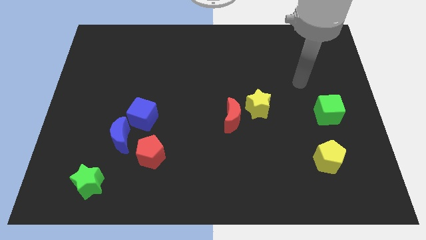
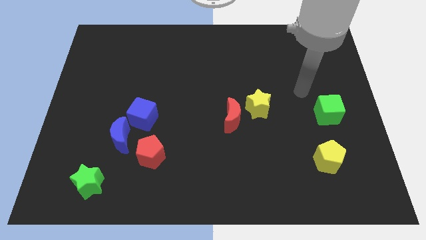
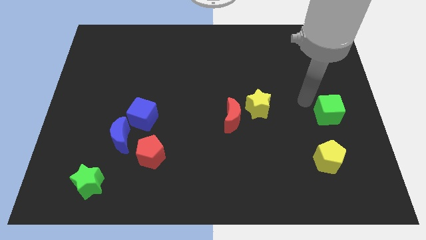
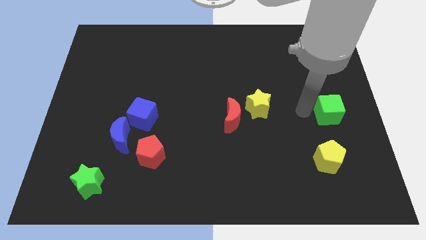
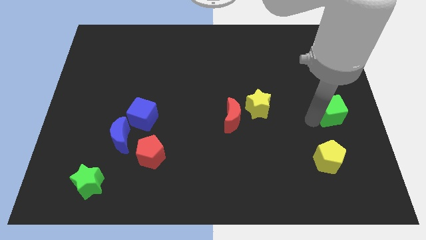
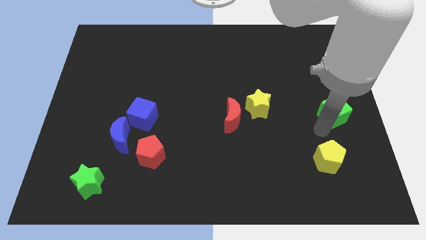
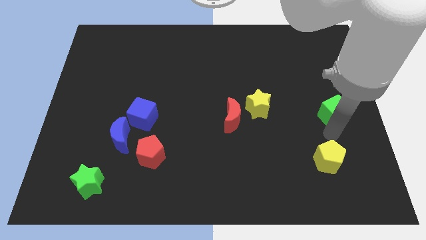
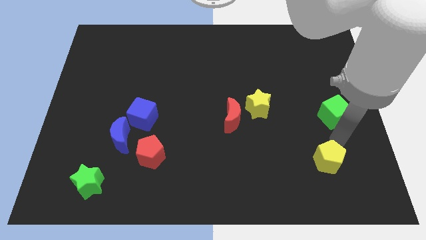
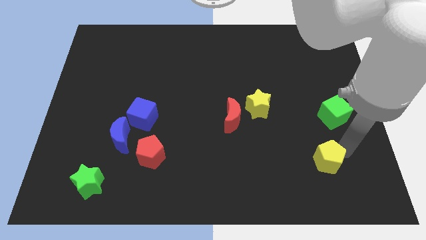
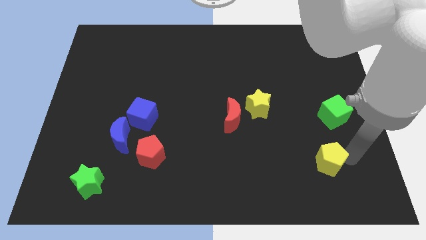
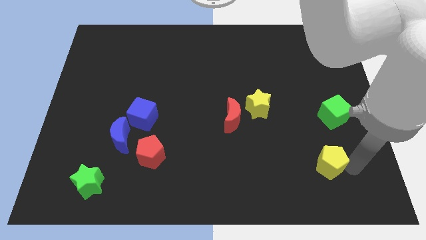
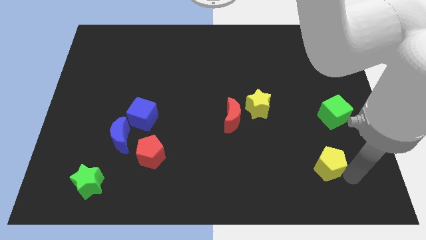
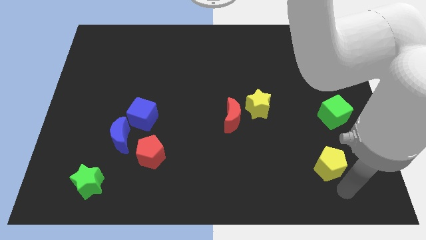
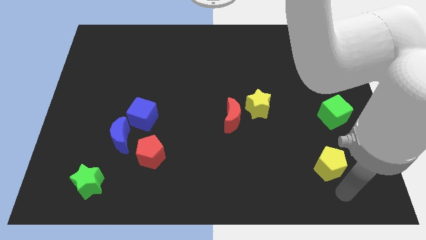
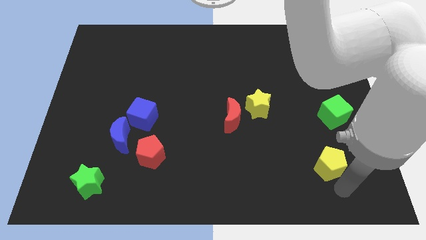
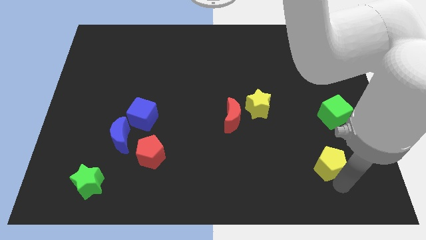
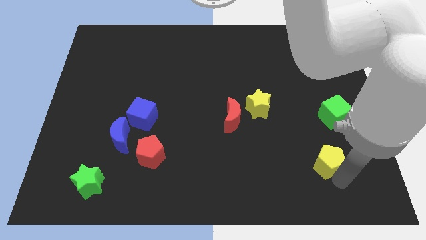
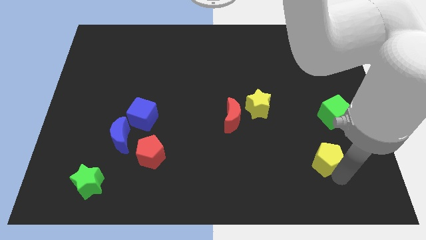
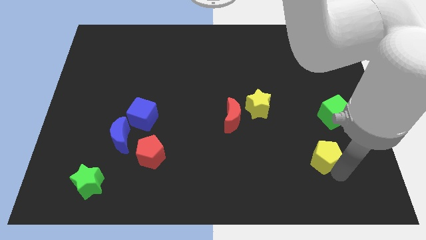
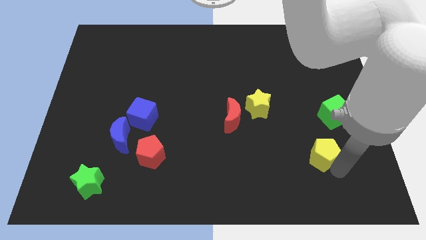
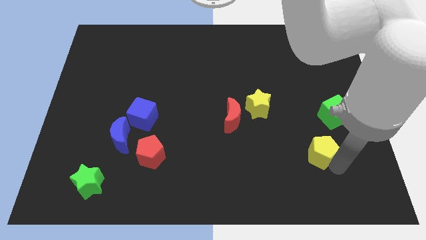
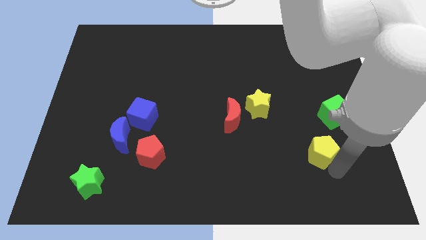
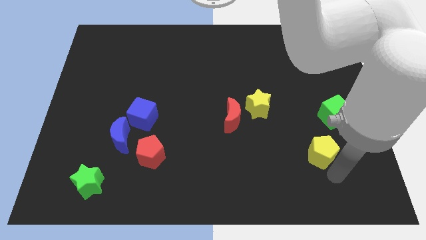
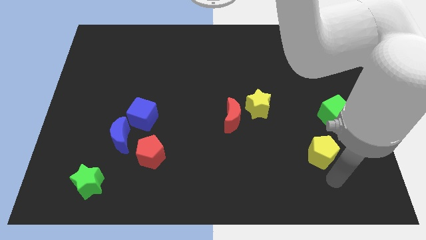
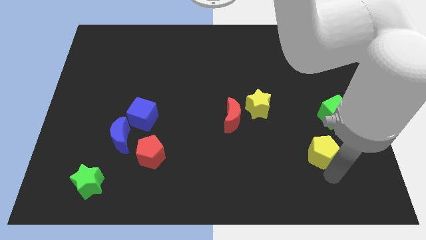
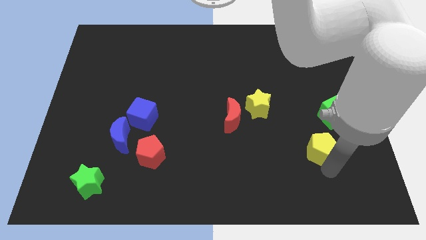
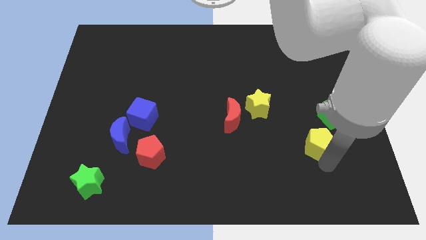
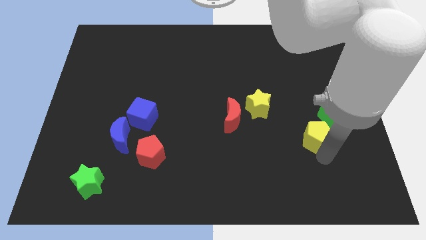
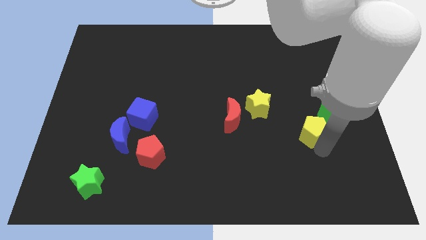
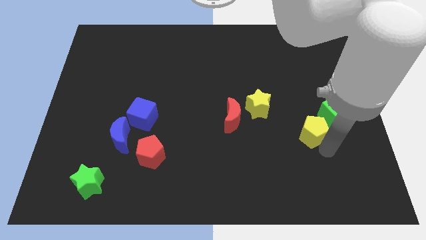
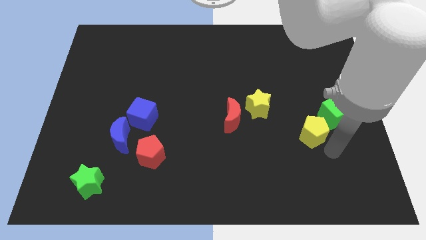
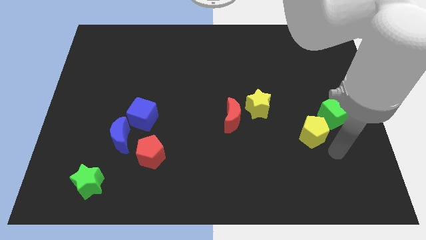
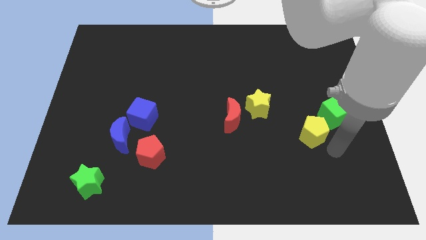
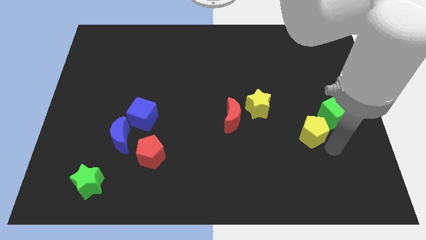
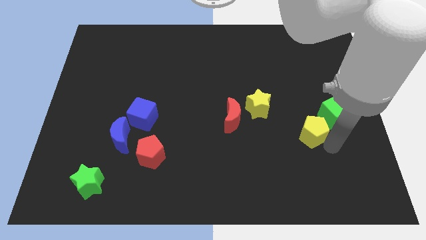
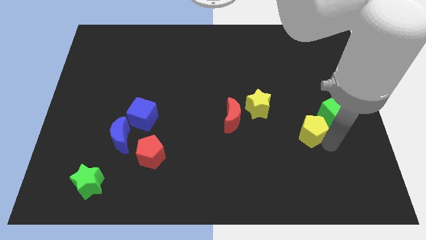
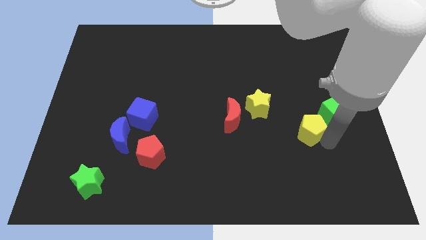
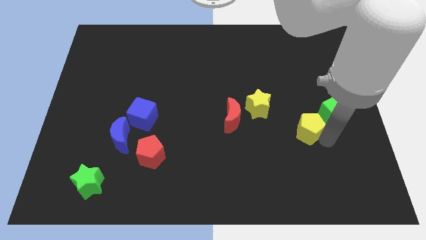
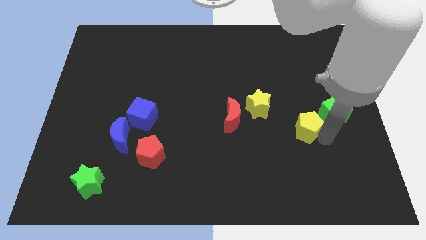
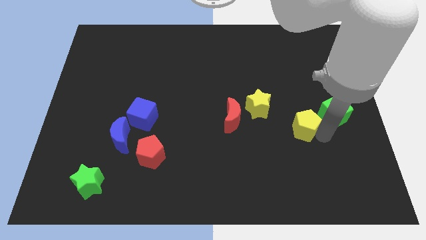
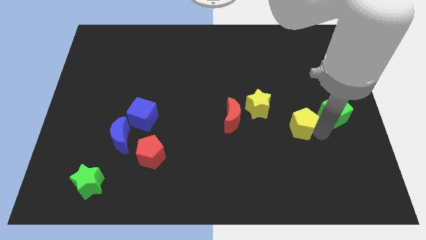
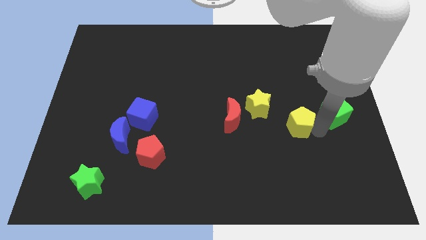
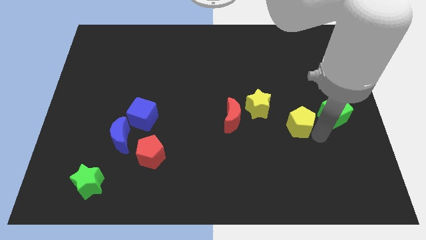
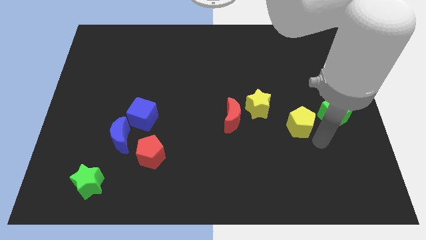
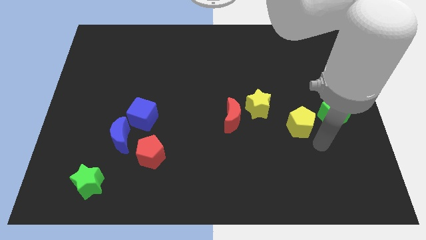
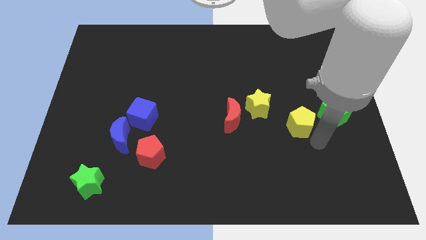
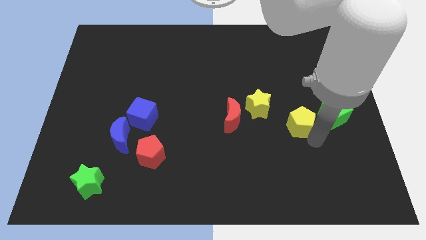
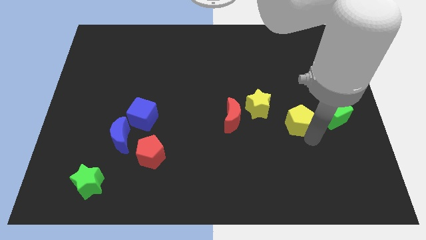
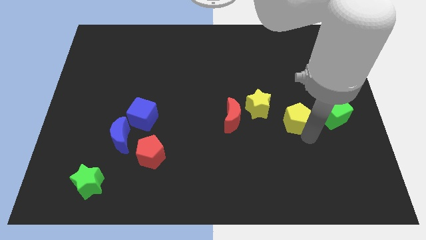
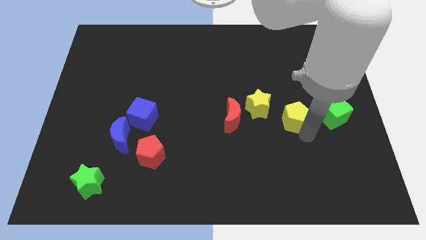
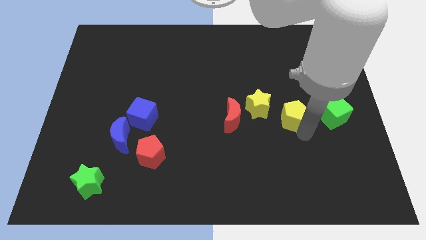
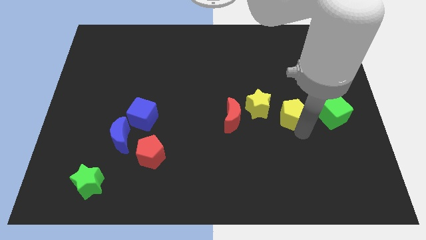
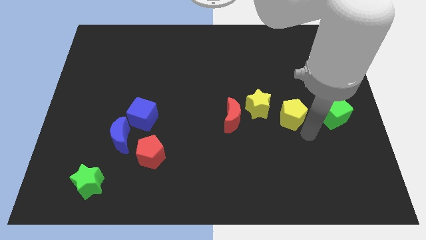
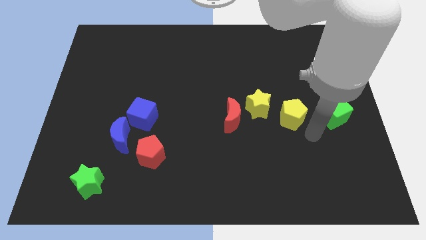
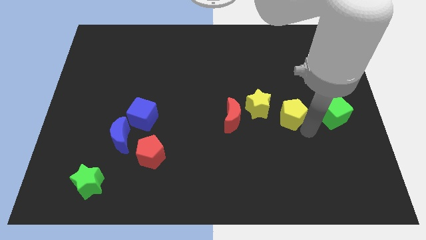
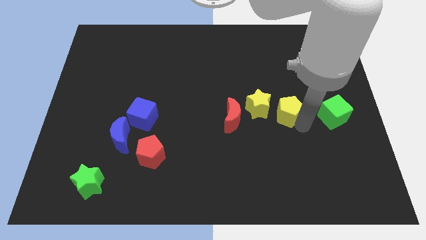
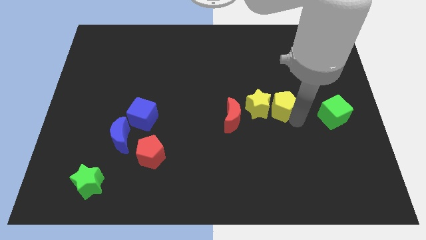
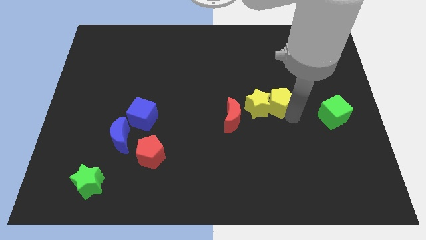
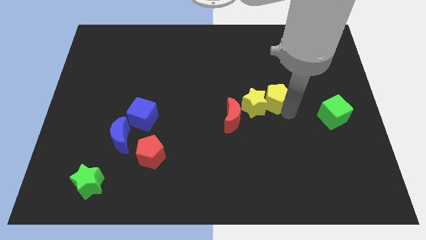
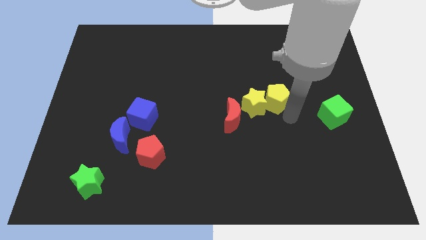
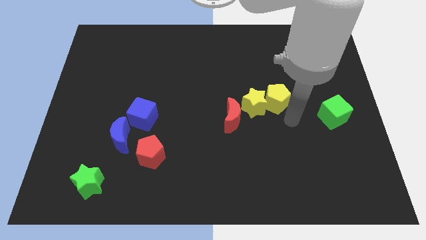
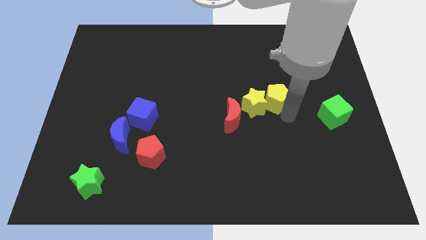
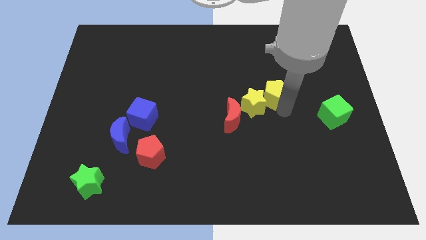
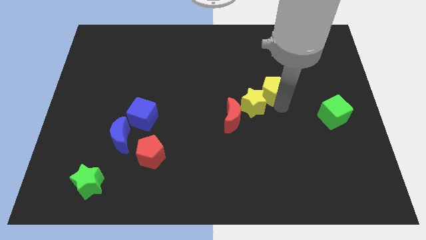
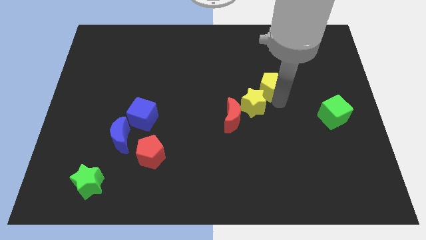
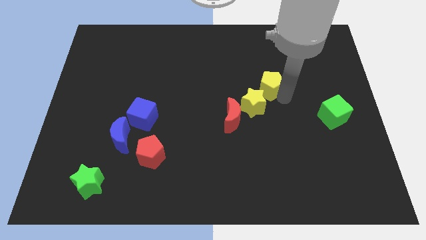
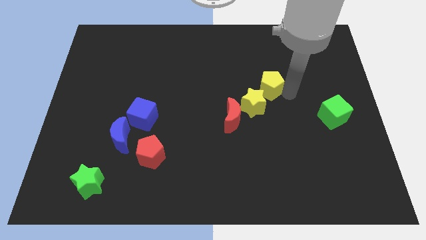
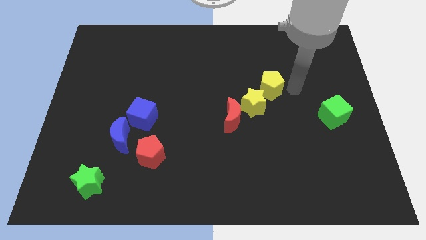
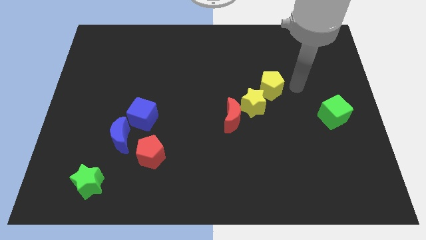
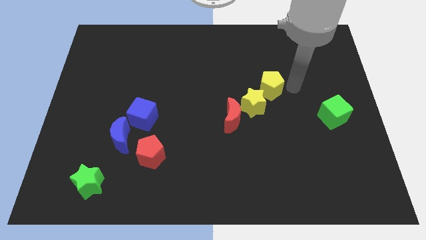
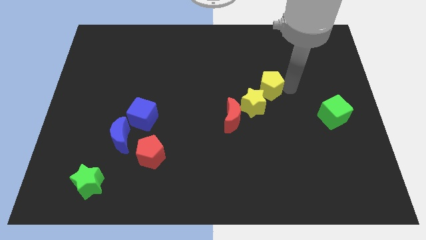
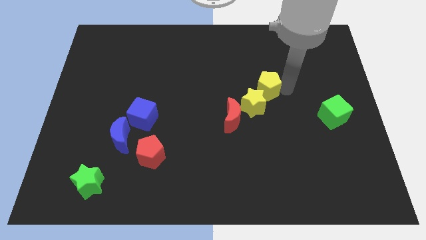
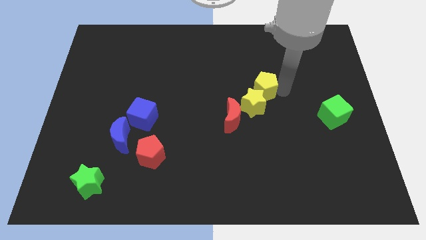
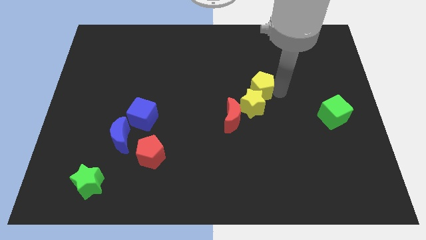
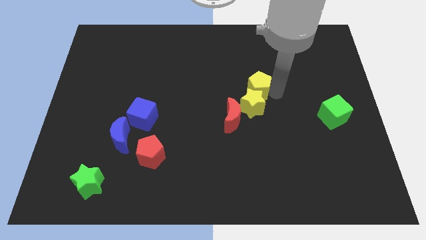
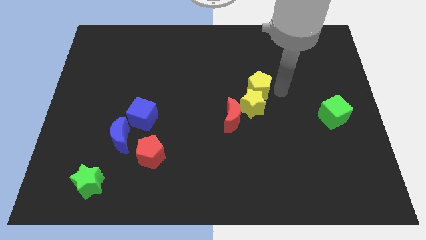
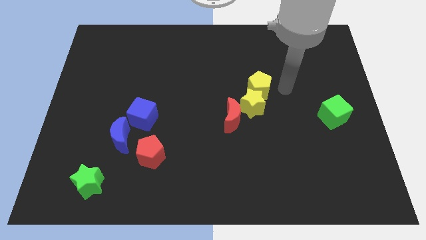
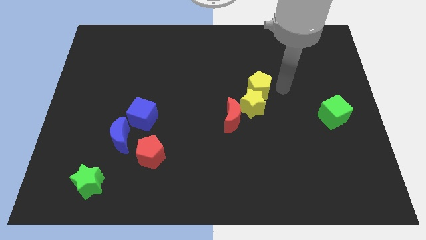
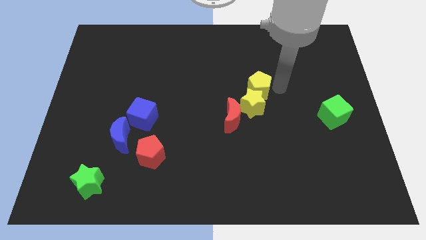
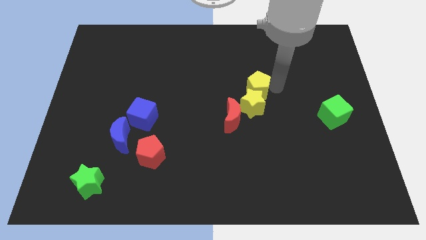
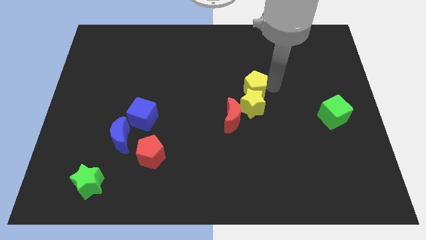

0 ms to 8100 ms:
push the yellow pentagon to the top left of the yellow star
